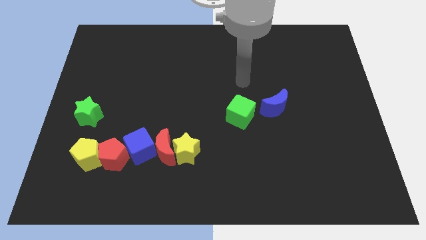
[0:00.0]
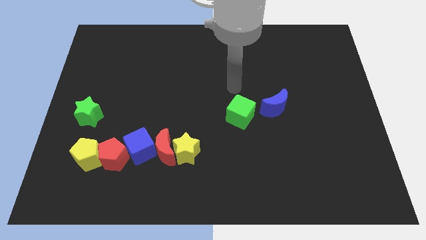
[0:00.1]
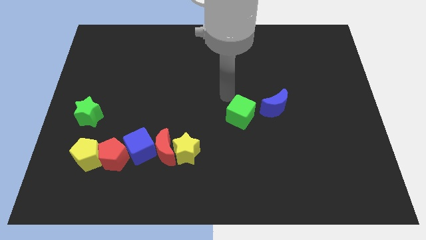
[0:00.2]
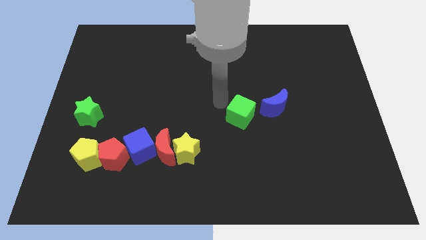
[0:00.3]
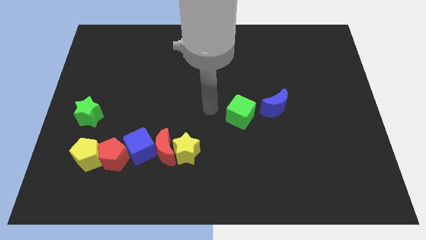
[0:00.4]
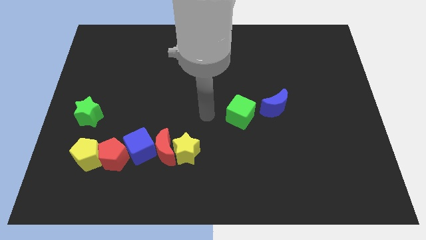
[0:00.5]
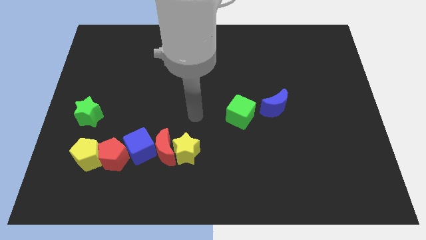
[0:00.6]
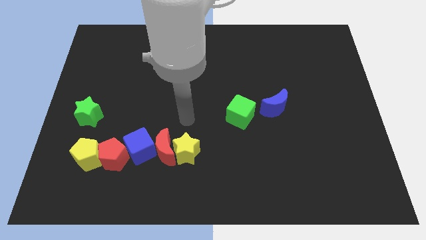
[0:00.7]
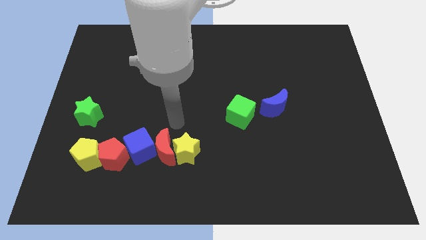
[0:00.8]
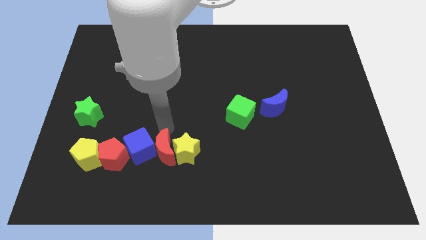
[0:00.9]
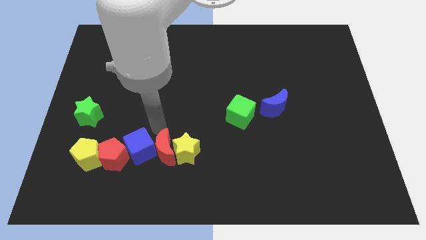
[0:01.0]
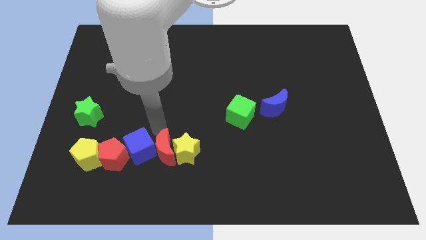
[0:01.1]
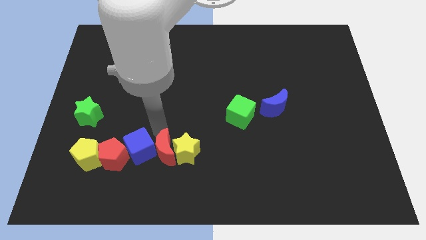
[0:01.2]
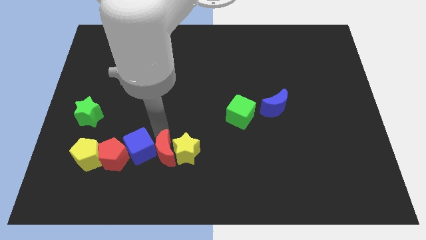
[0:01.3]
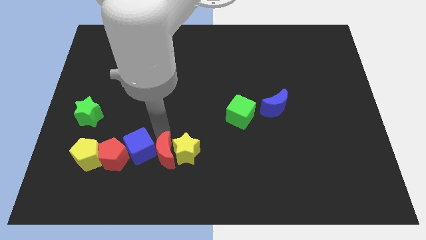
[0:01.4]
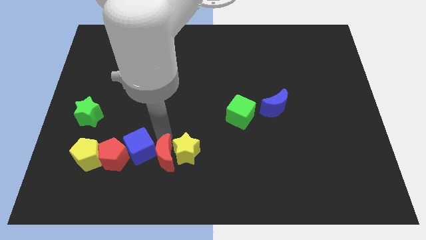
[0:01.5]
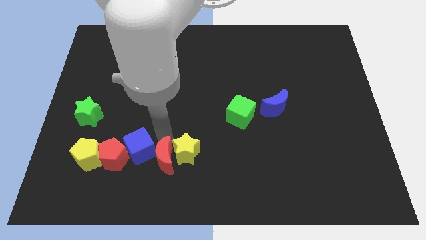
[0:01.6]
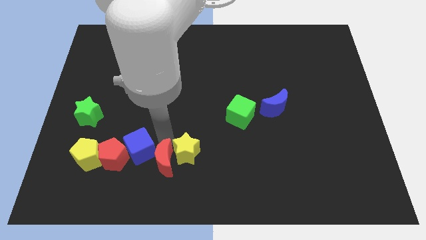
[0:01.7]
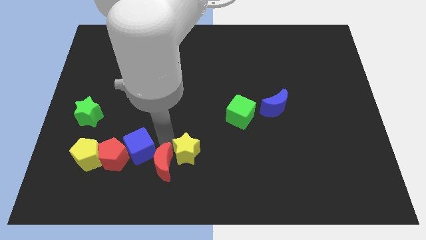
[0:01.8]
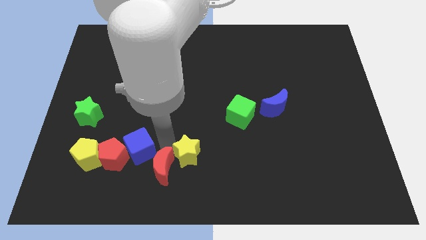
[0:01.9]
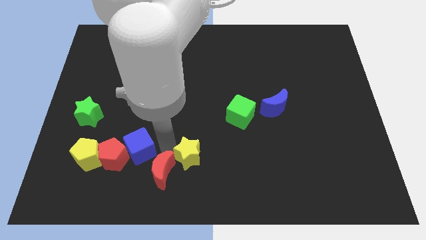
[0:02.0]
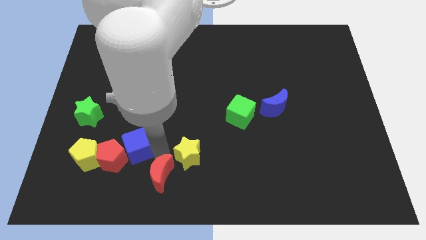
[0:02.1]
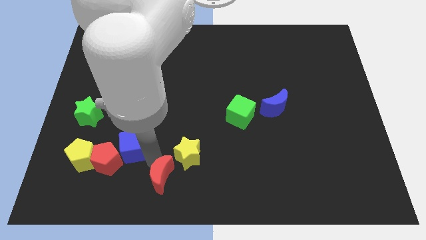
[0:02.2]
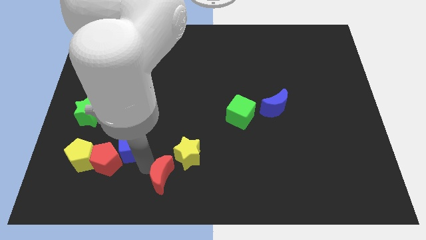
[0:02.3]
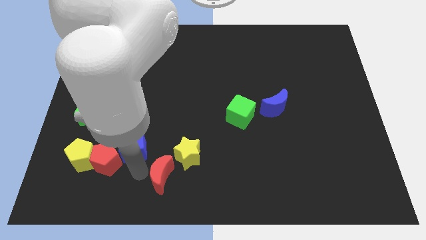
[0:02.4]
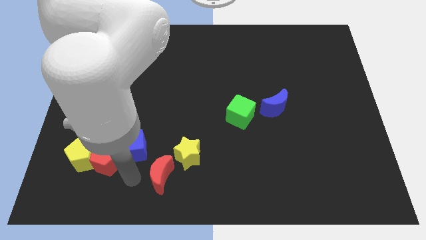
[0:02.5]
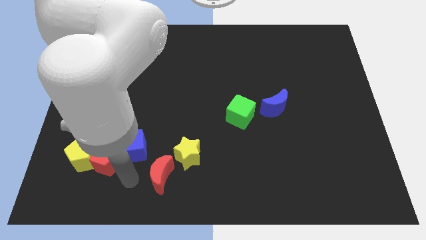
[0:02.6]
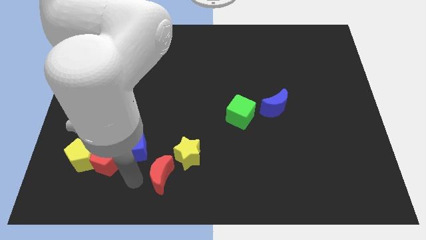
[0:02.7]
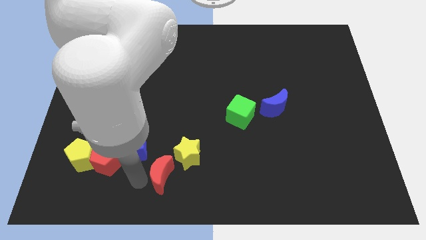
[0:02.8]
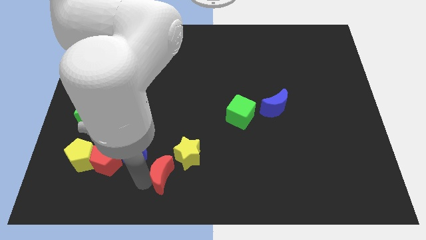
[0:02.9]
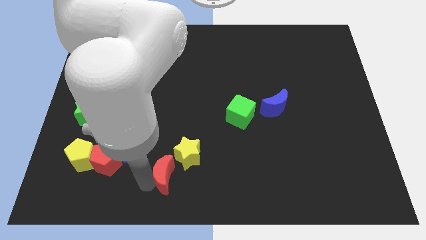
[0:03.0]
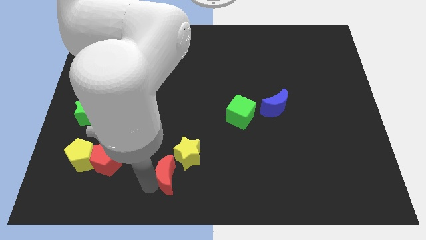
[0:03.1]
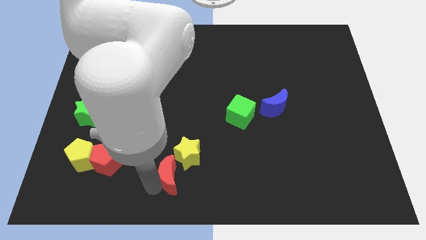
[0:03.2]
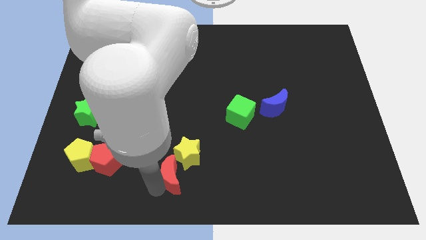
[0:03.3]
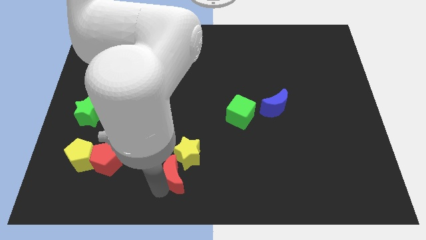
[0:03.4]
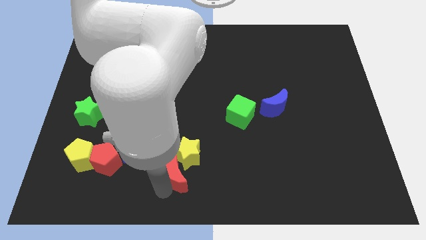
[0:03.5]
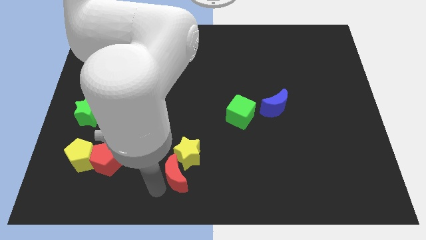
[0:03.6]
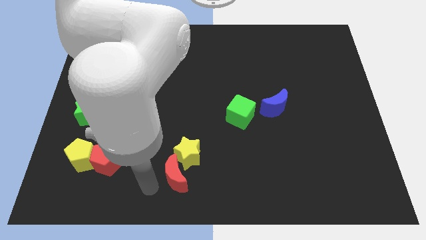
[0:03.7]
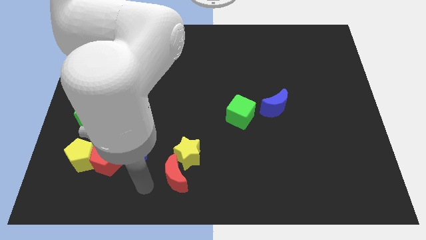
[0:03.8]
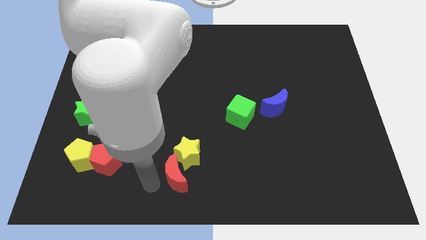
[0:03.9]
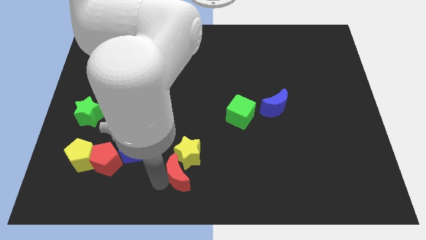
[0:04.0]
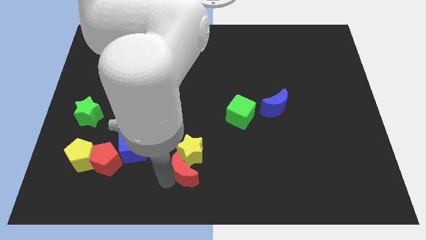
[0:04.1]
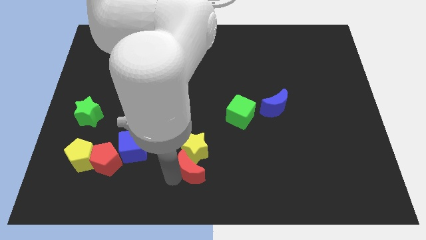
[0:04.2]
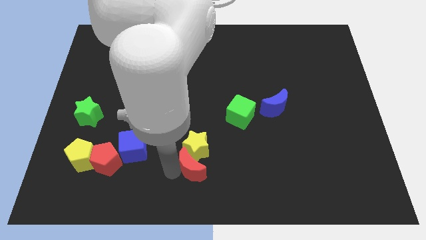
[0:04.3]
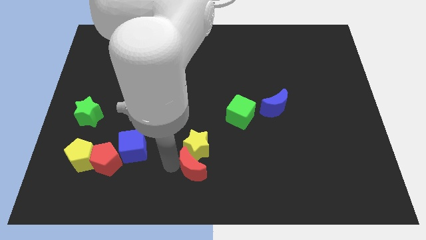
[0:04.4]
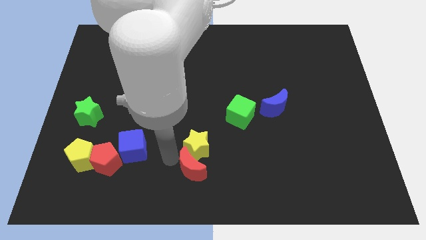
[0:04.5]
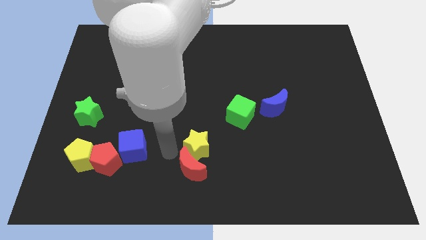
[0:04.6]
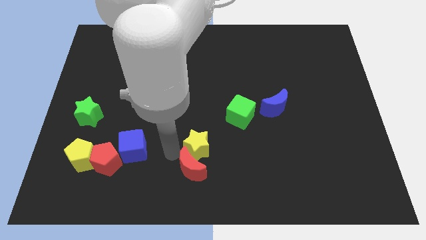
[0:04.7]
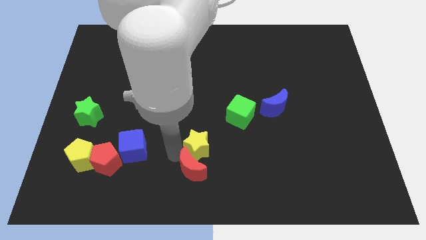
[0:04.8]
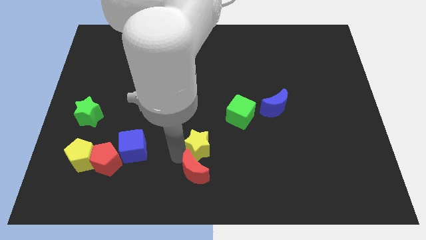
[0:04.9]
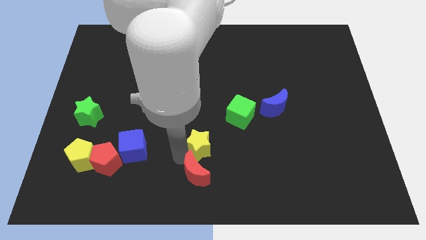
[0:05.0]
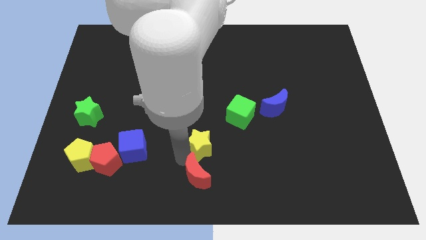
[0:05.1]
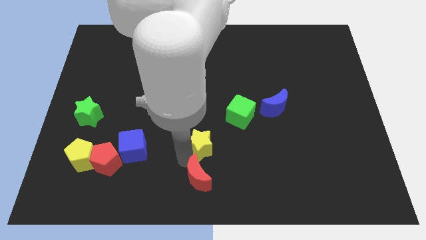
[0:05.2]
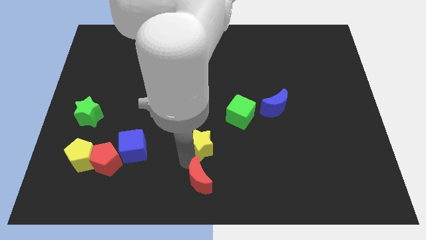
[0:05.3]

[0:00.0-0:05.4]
move the red moon away from the yellow star and blue cube

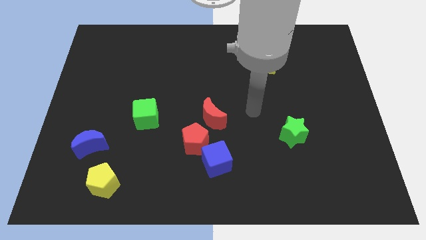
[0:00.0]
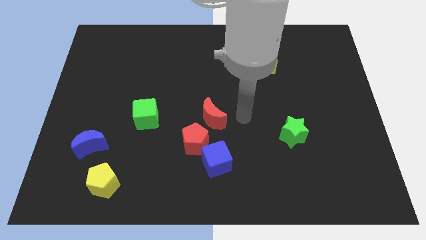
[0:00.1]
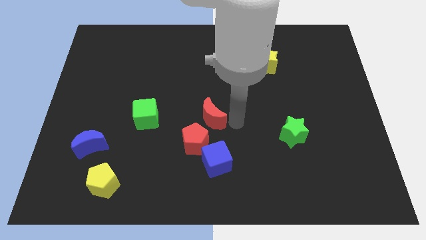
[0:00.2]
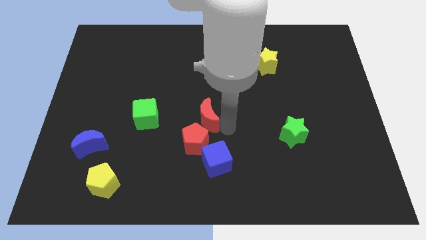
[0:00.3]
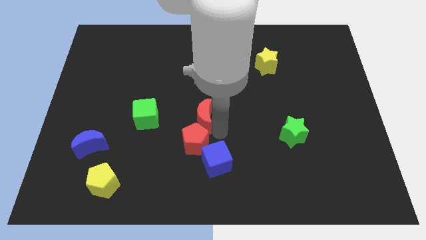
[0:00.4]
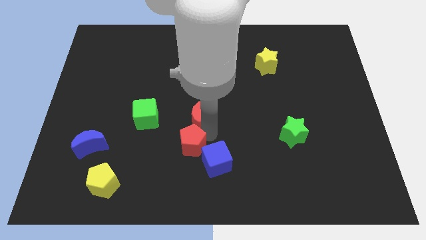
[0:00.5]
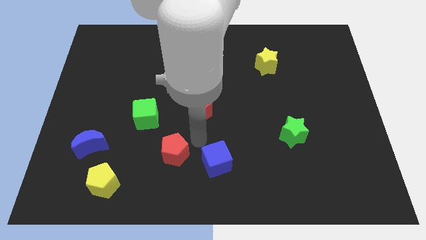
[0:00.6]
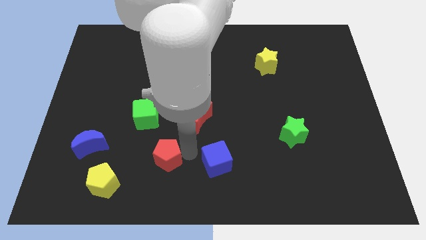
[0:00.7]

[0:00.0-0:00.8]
pull the blue cube apart from the red pentagon

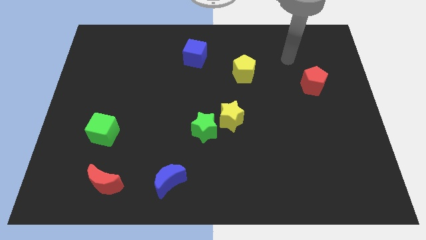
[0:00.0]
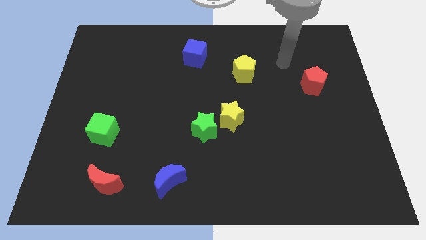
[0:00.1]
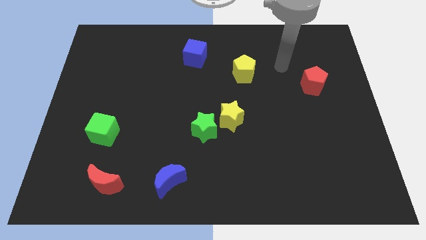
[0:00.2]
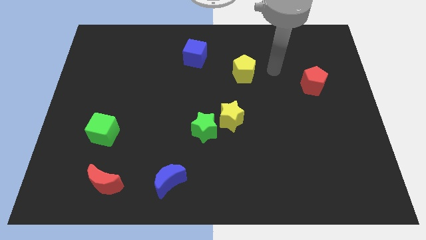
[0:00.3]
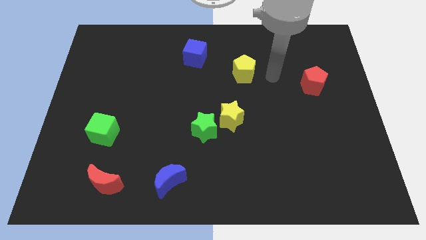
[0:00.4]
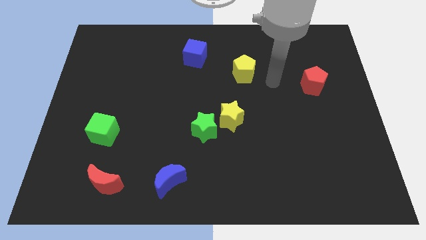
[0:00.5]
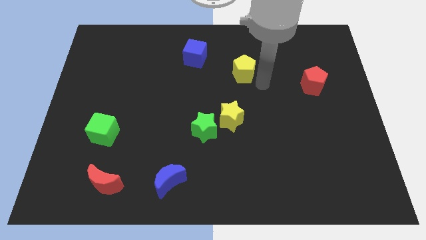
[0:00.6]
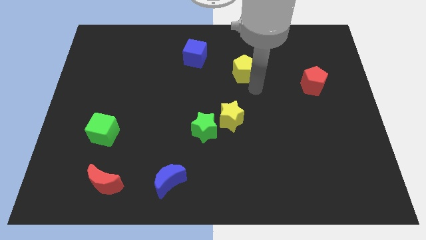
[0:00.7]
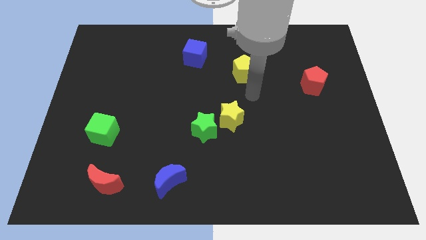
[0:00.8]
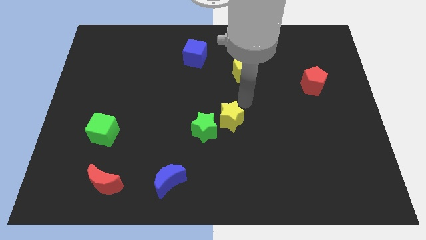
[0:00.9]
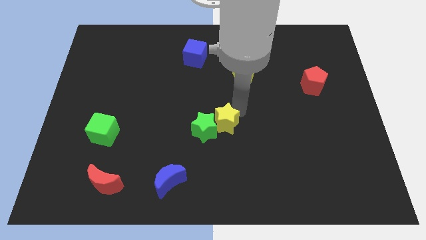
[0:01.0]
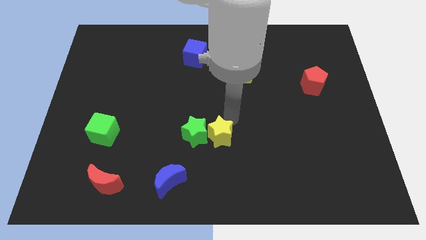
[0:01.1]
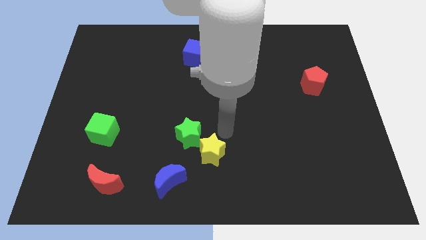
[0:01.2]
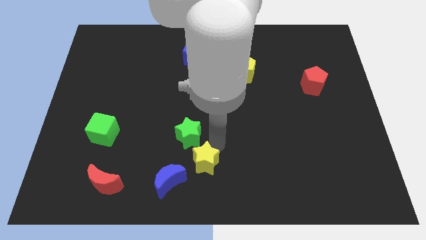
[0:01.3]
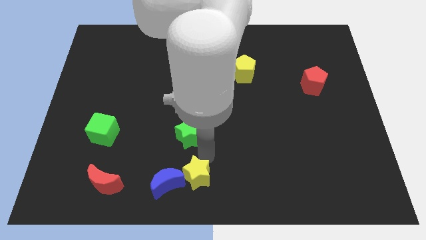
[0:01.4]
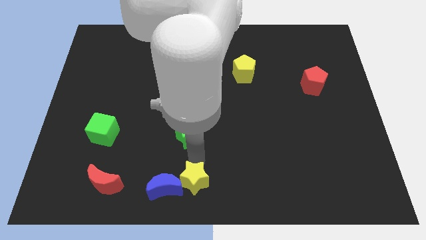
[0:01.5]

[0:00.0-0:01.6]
separate the green star from the yellow star

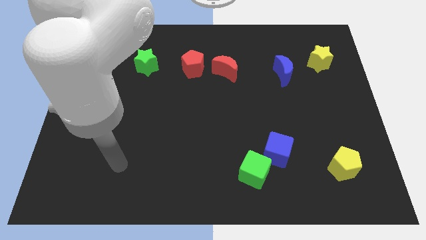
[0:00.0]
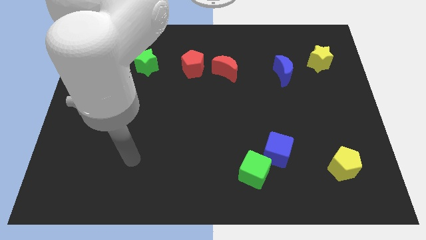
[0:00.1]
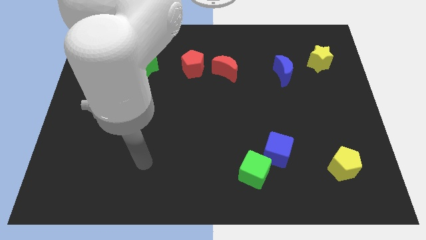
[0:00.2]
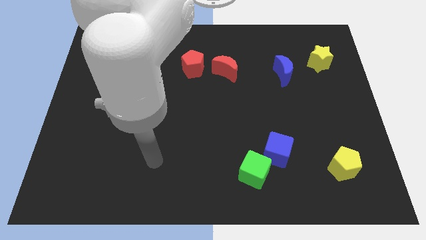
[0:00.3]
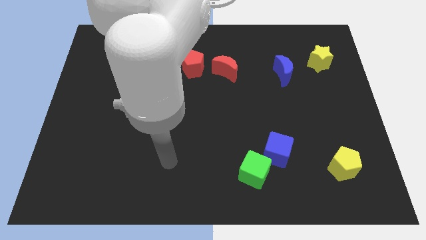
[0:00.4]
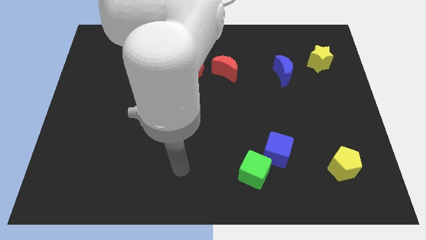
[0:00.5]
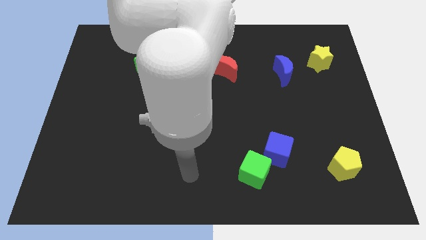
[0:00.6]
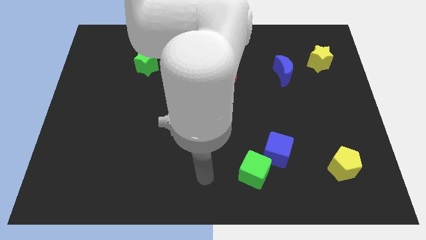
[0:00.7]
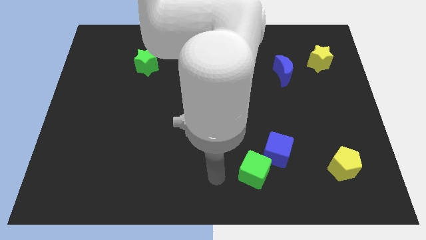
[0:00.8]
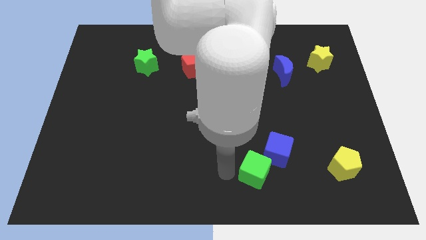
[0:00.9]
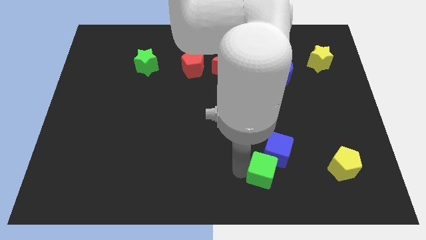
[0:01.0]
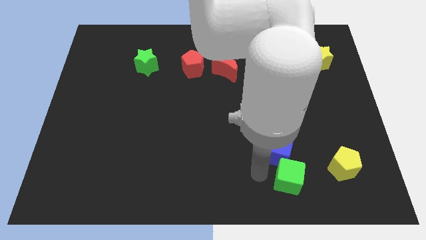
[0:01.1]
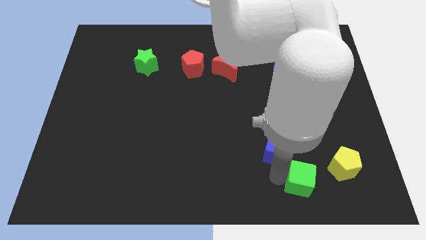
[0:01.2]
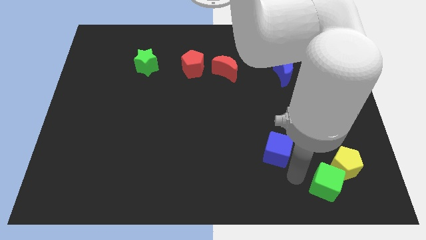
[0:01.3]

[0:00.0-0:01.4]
pull the blue cube apart from the green cube

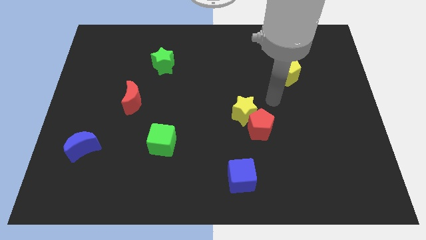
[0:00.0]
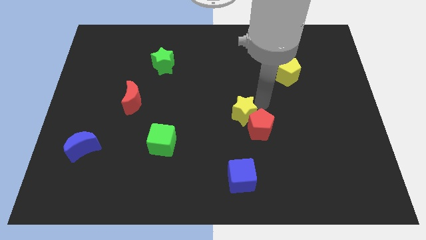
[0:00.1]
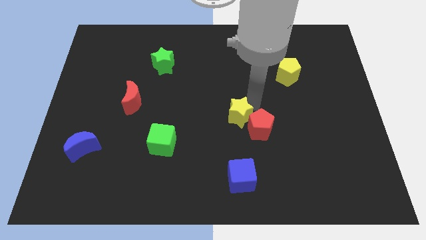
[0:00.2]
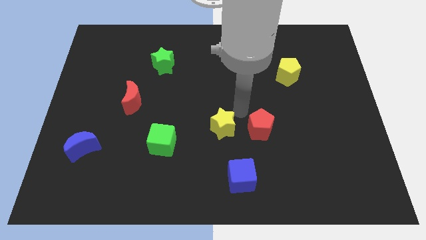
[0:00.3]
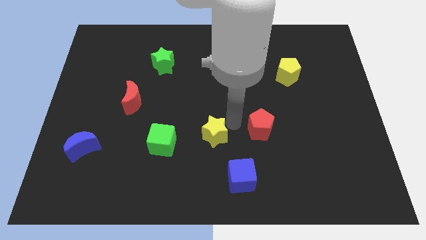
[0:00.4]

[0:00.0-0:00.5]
pull the red pentagon apart from the yellow star
